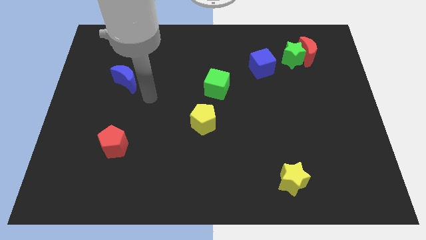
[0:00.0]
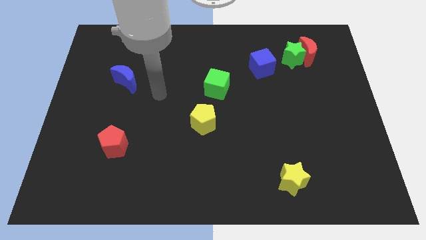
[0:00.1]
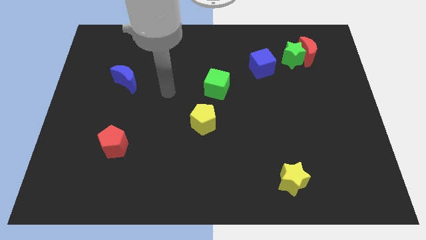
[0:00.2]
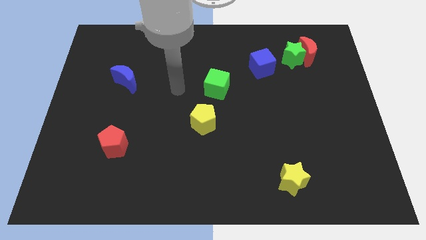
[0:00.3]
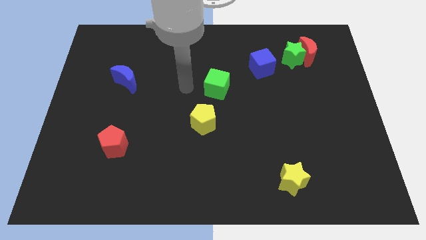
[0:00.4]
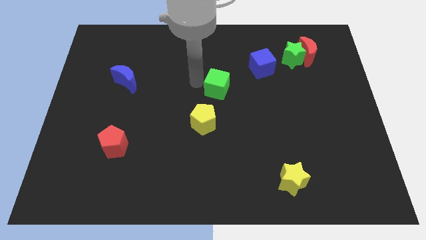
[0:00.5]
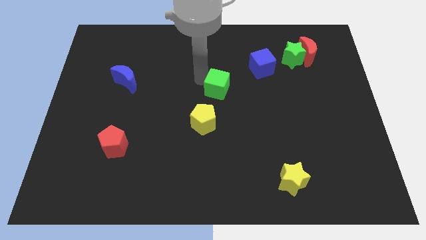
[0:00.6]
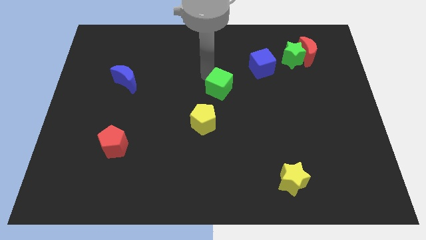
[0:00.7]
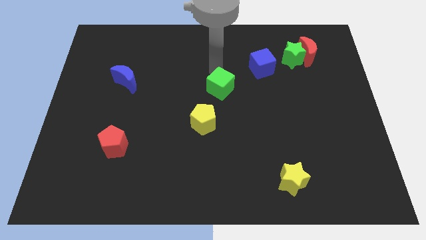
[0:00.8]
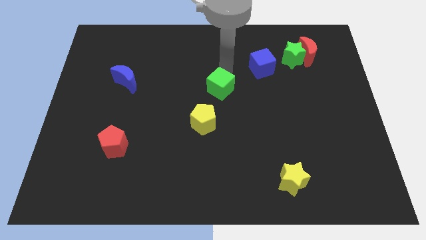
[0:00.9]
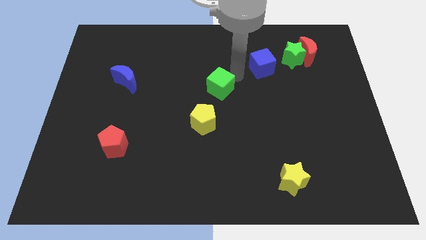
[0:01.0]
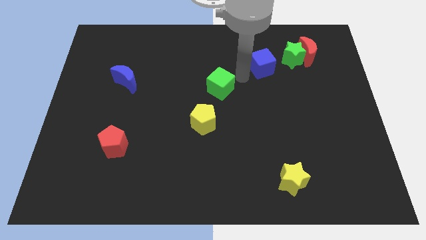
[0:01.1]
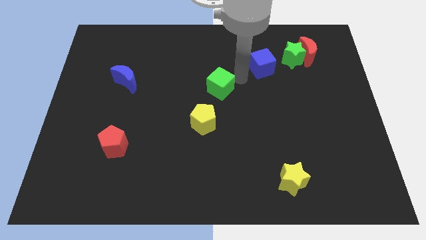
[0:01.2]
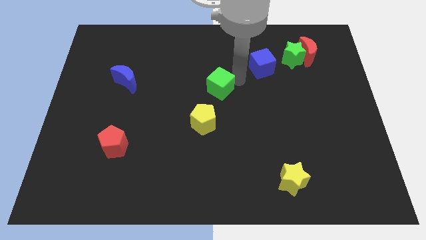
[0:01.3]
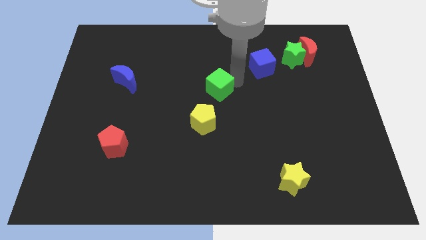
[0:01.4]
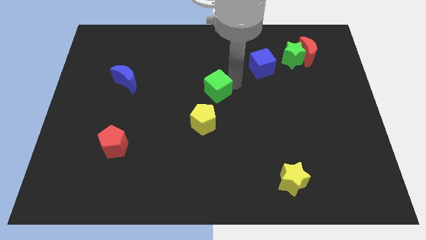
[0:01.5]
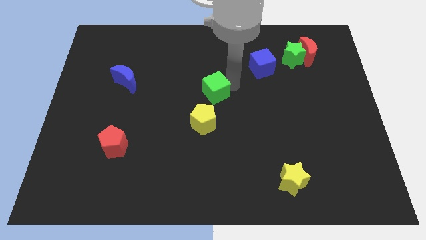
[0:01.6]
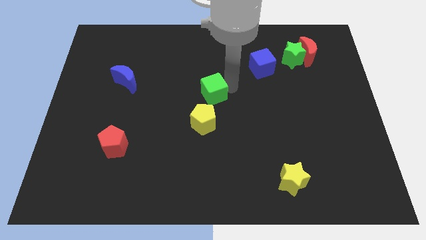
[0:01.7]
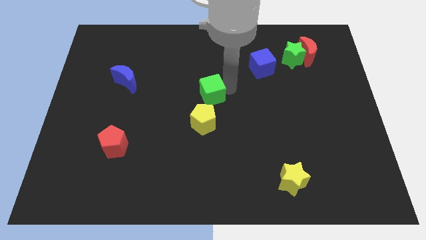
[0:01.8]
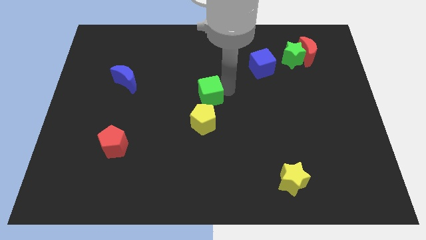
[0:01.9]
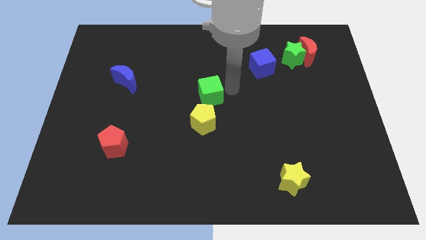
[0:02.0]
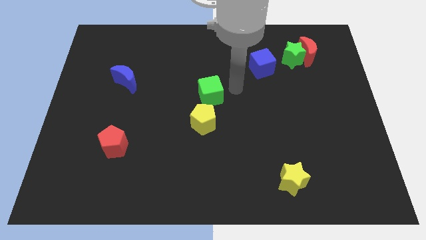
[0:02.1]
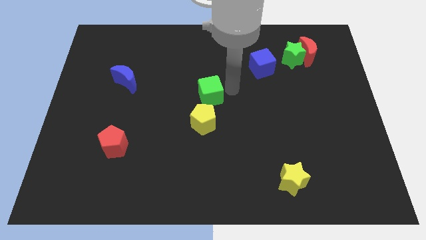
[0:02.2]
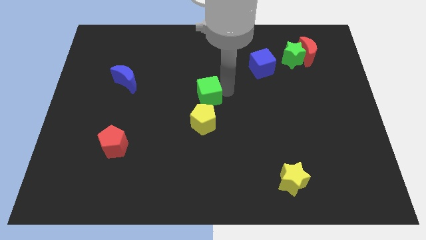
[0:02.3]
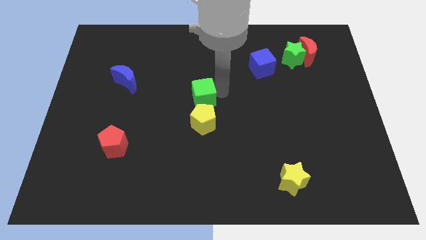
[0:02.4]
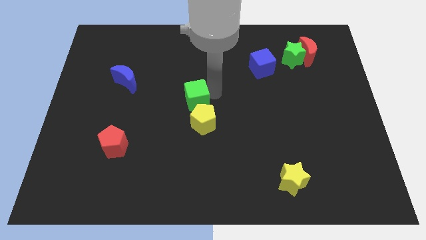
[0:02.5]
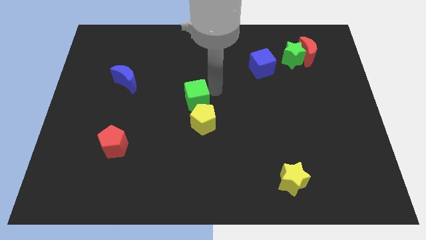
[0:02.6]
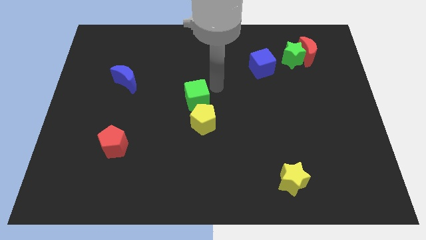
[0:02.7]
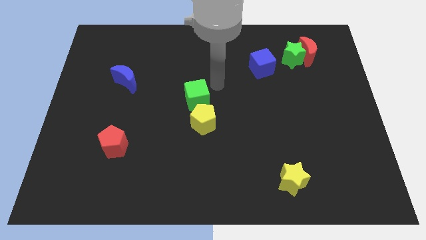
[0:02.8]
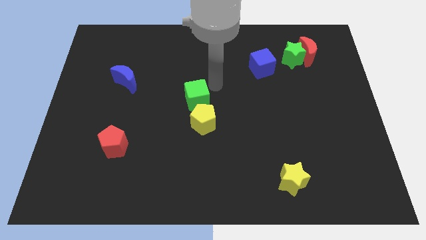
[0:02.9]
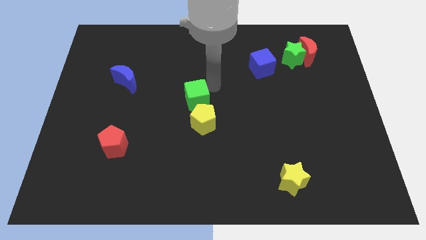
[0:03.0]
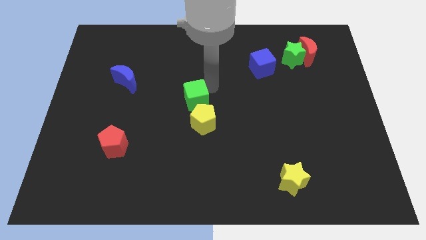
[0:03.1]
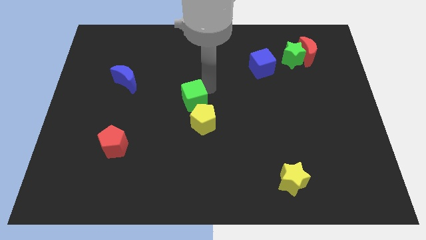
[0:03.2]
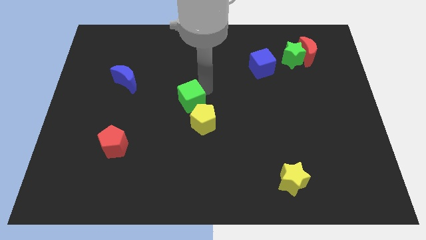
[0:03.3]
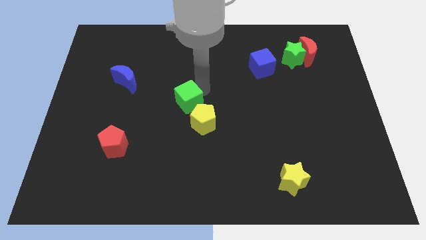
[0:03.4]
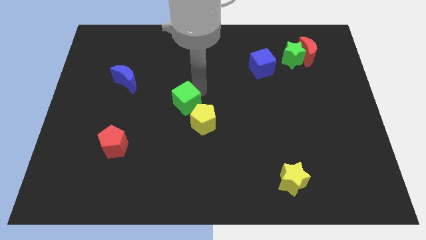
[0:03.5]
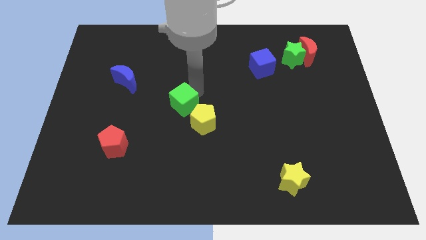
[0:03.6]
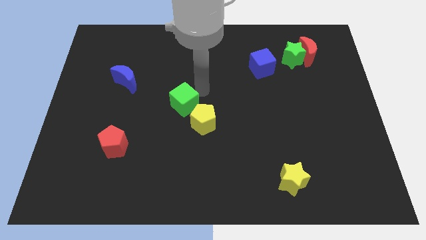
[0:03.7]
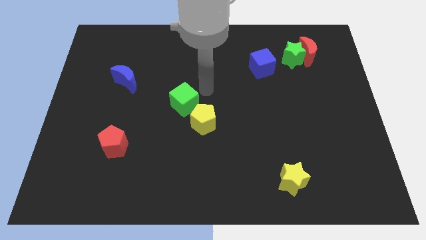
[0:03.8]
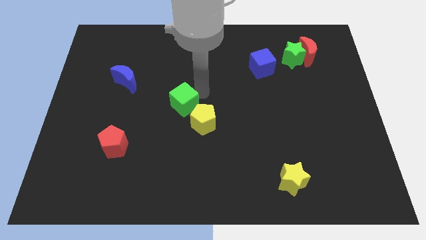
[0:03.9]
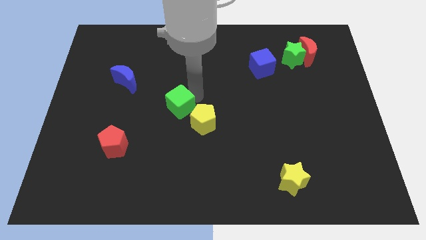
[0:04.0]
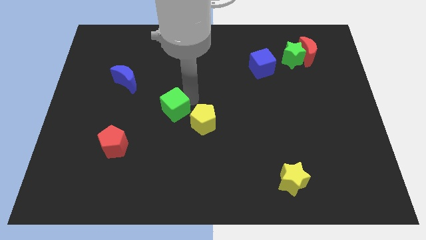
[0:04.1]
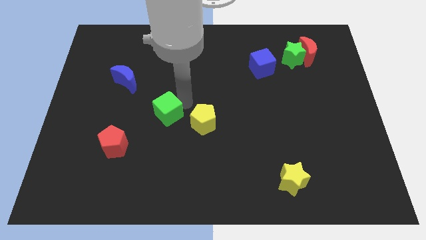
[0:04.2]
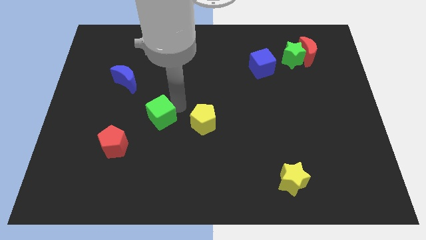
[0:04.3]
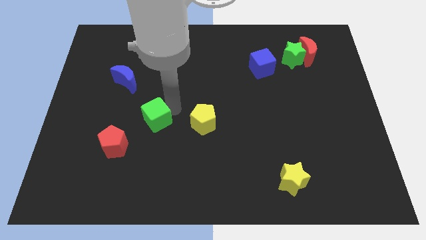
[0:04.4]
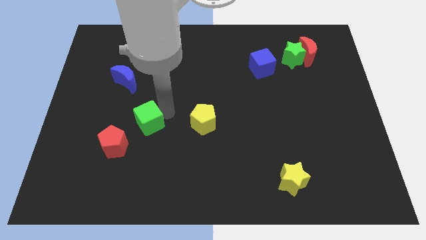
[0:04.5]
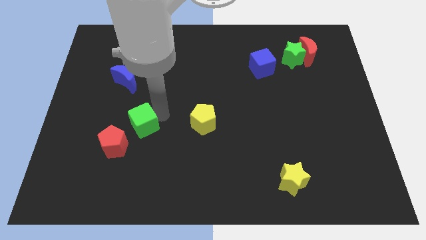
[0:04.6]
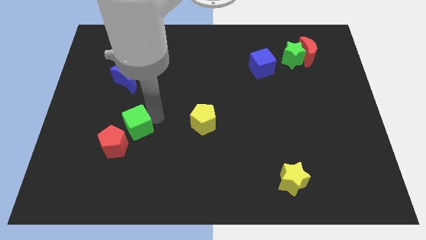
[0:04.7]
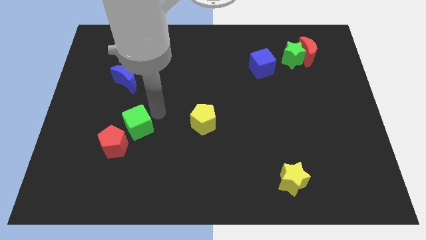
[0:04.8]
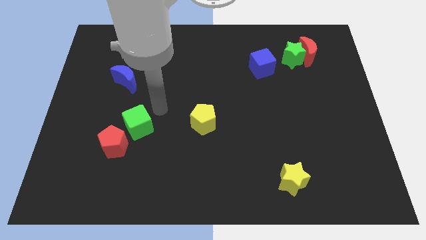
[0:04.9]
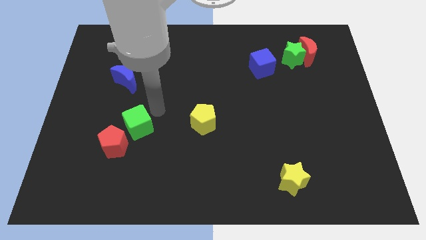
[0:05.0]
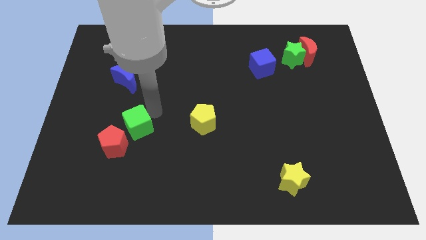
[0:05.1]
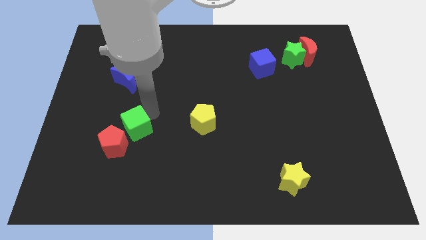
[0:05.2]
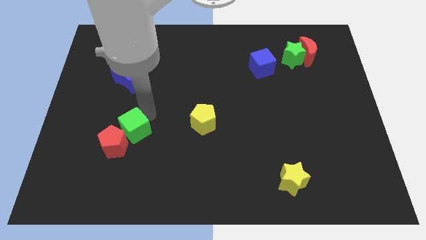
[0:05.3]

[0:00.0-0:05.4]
push the green cube close to the red pentagon
